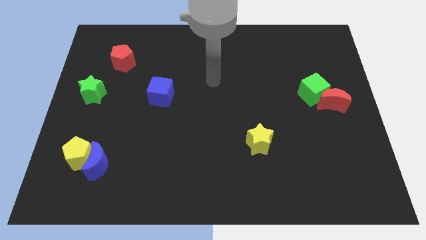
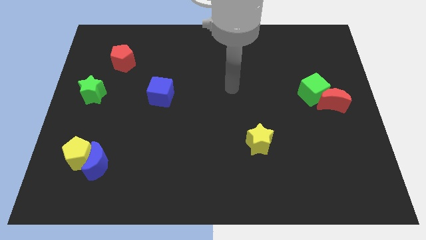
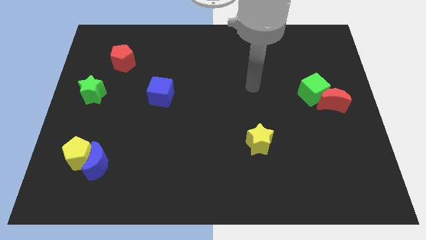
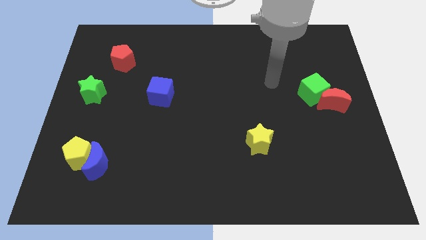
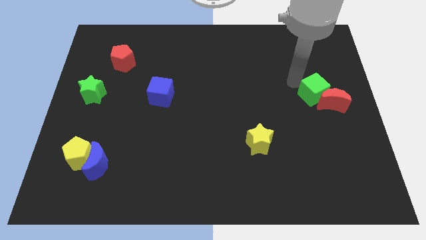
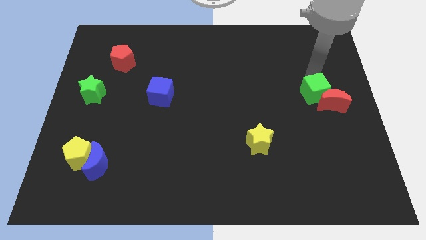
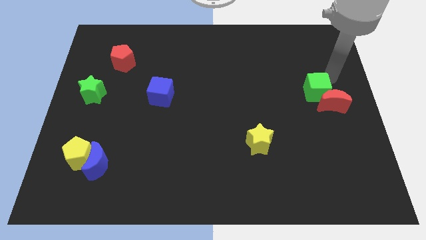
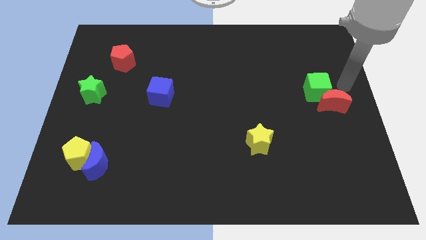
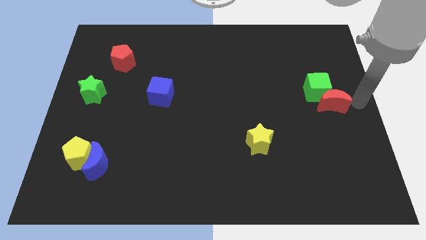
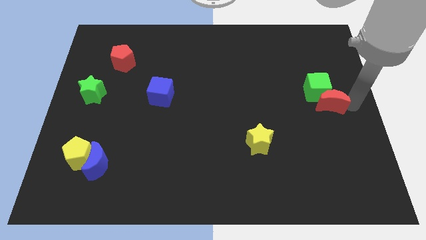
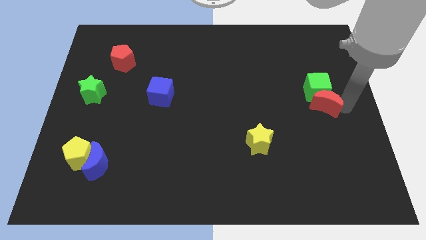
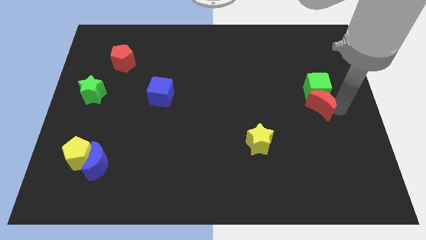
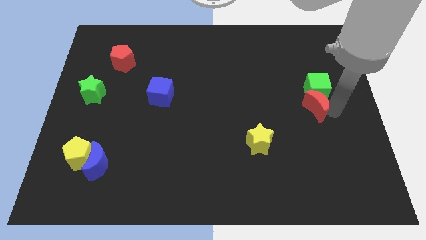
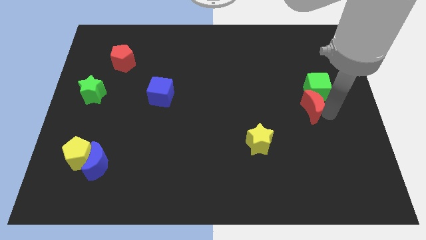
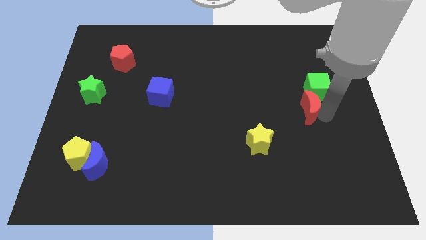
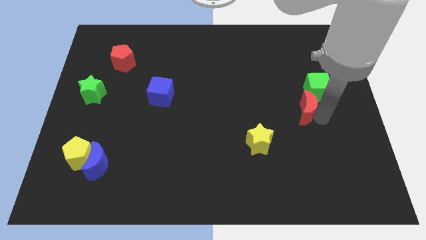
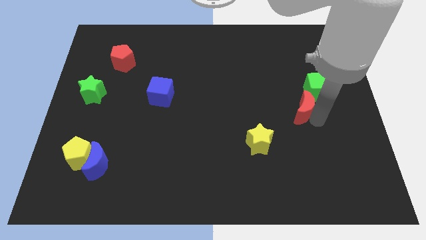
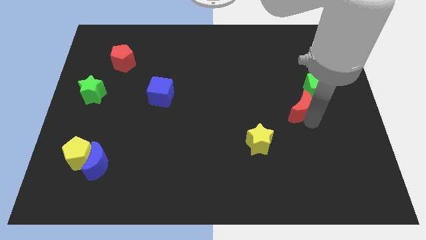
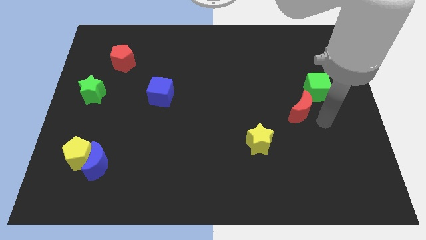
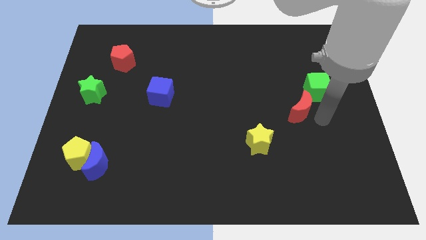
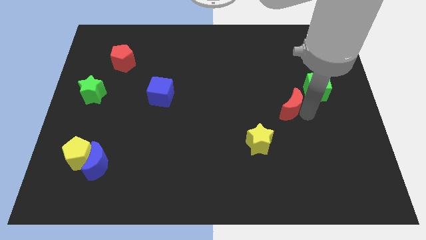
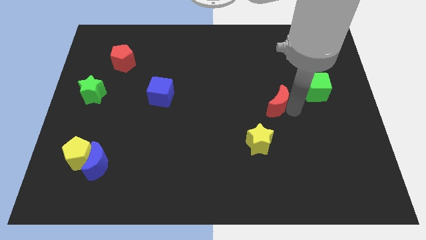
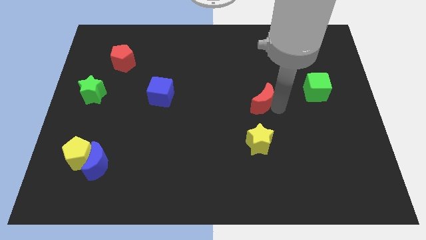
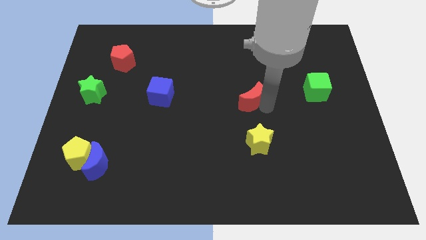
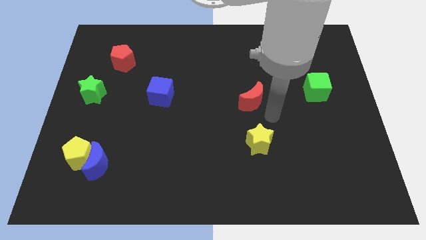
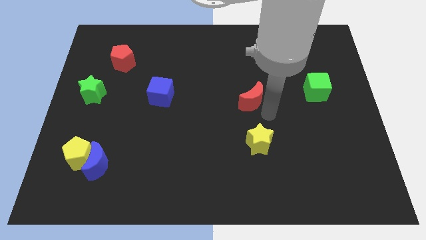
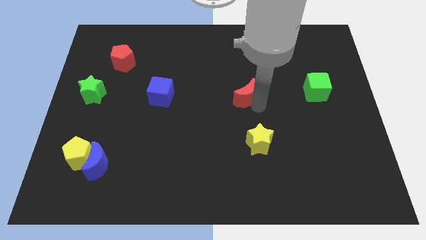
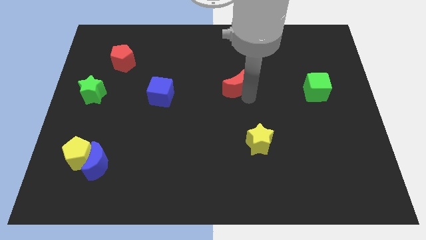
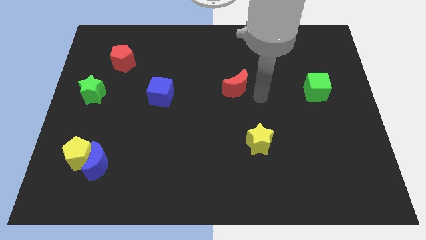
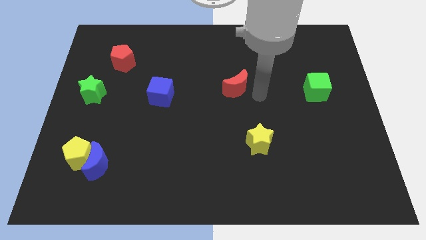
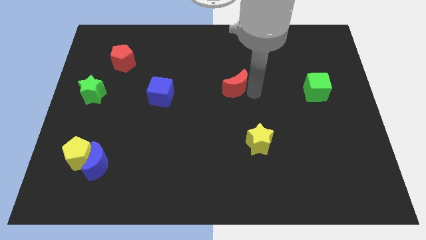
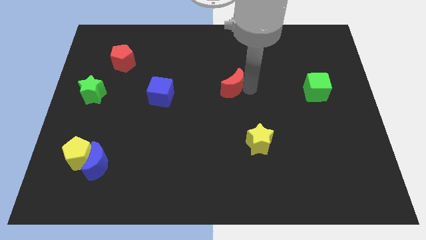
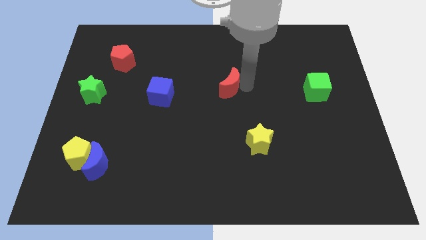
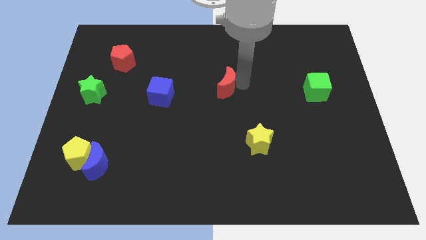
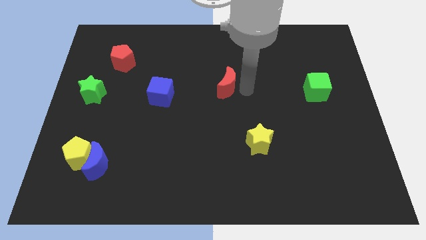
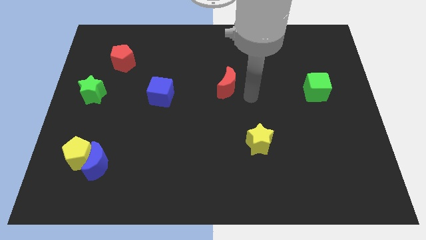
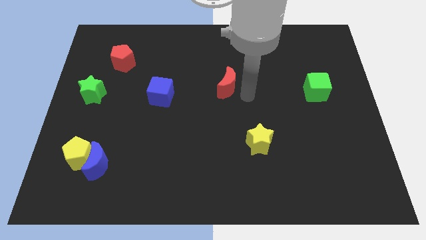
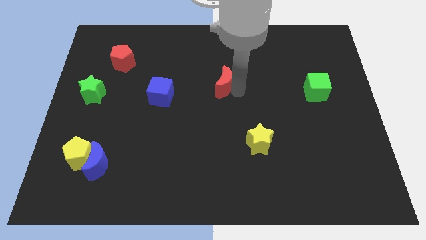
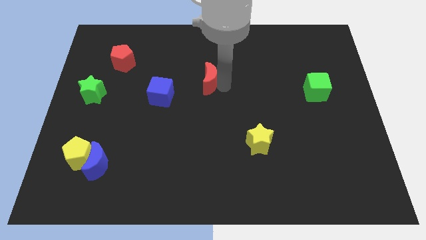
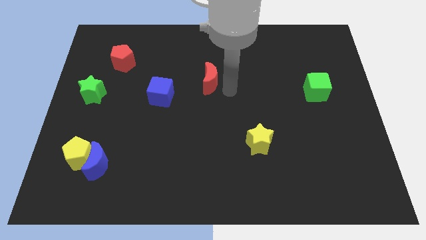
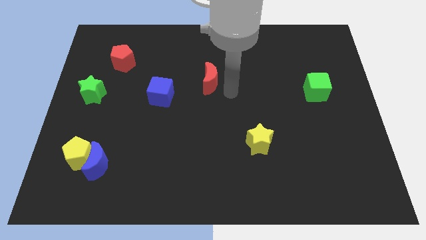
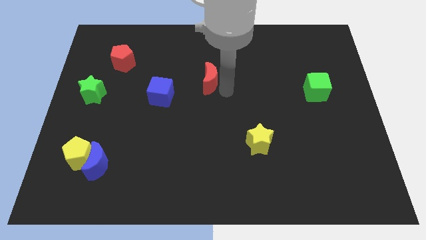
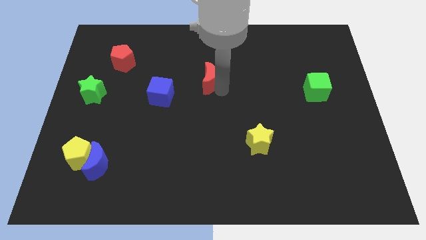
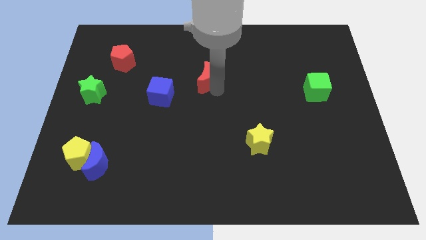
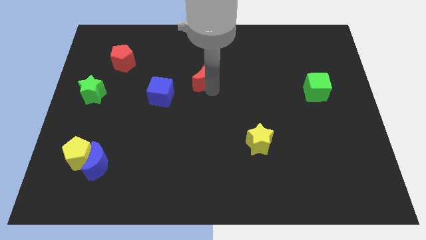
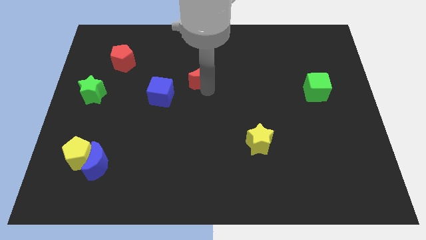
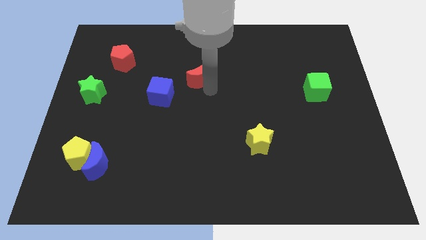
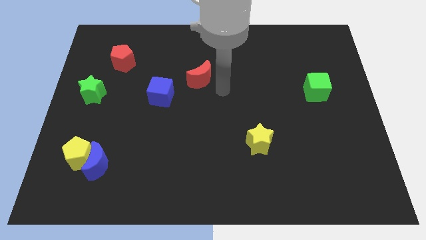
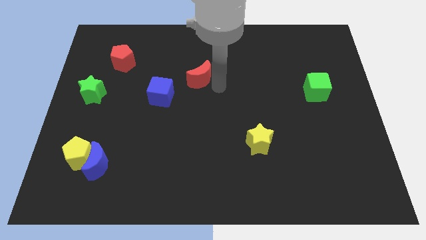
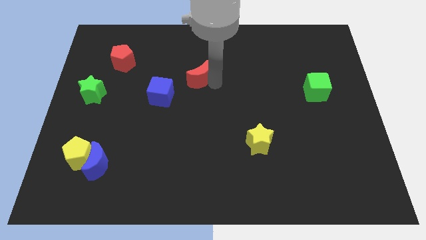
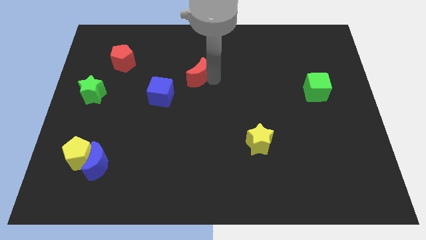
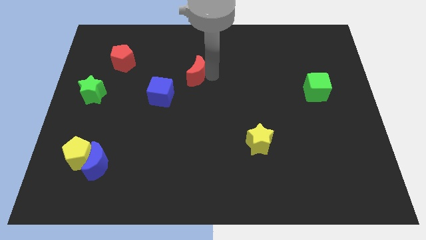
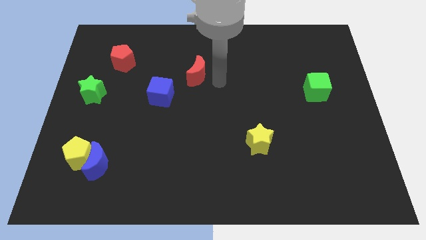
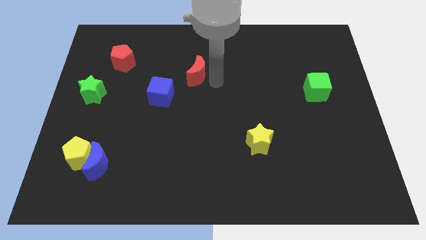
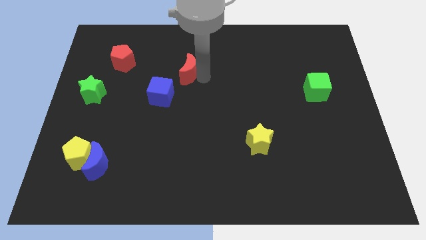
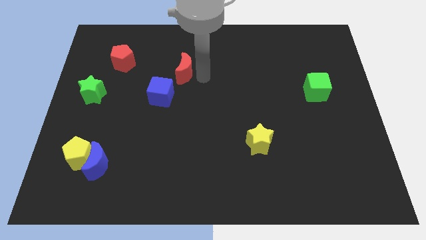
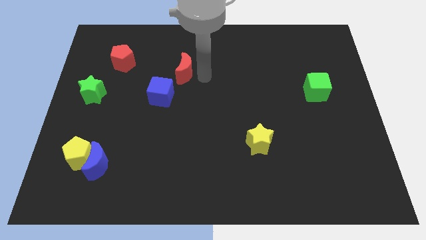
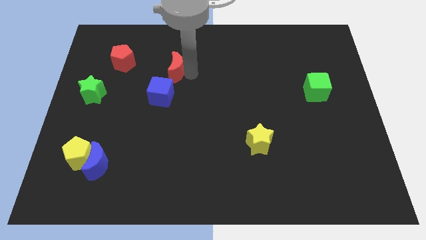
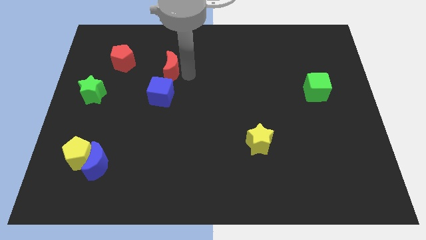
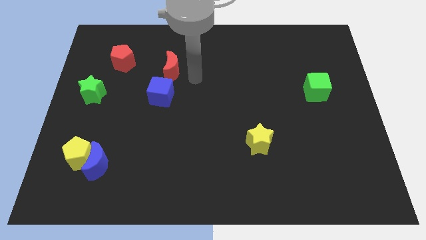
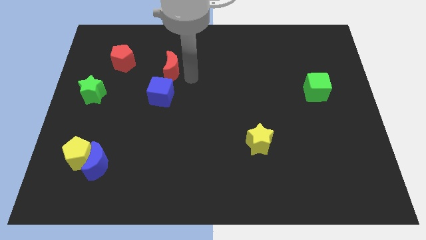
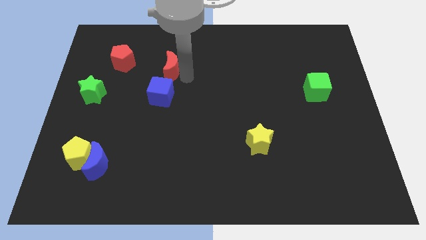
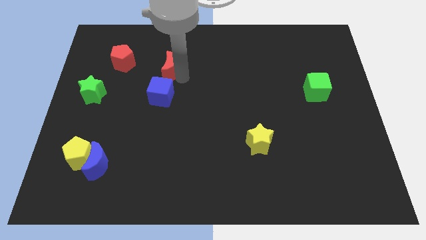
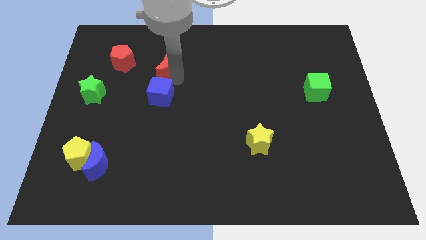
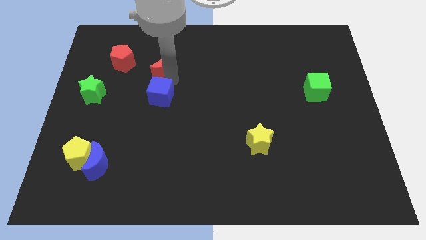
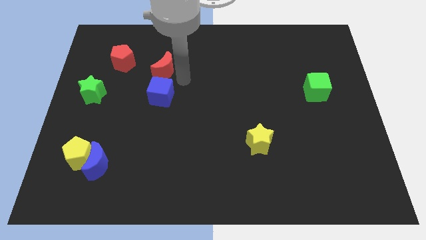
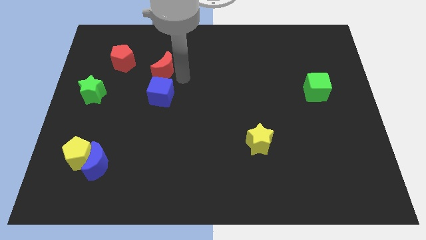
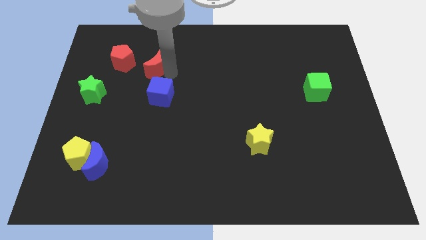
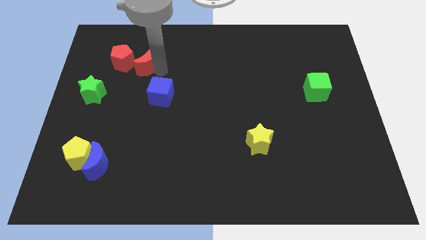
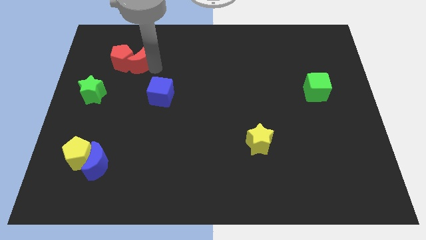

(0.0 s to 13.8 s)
slide the red moon next to the red pentagon

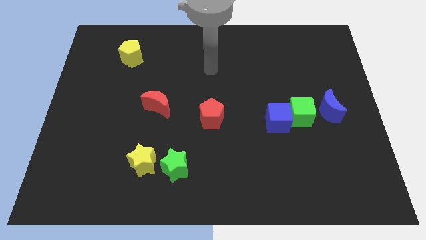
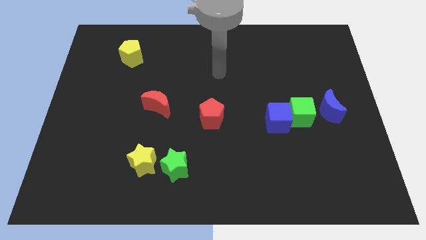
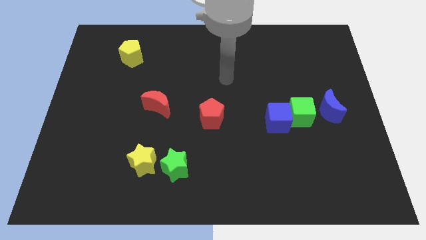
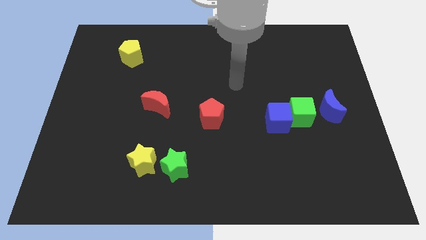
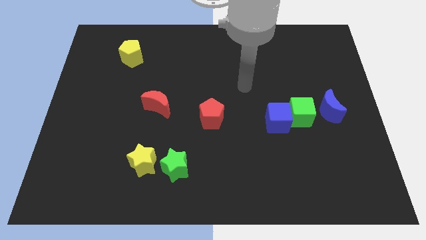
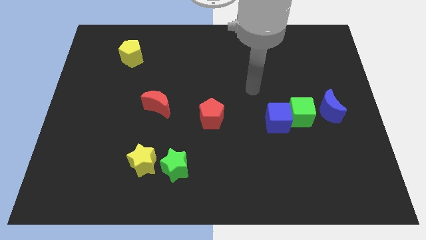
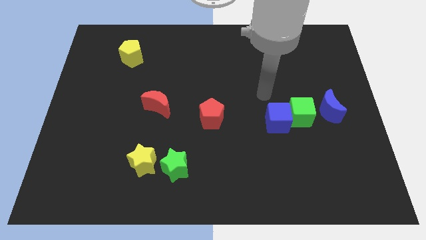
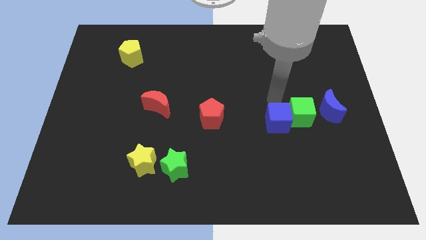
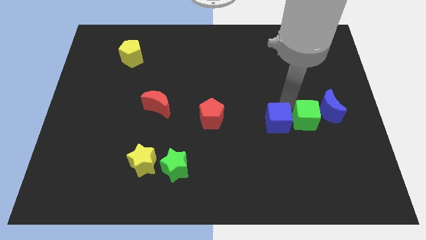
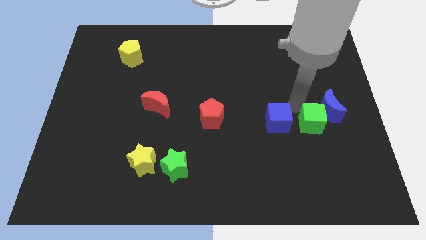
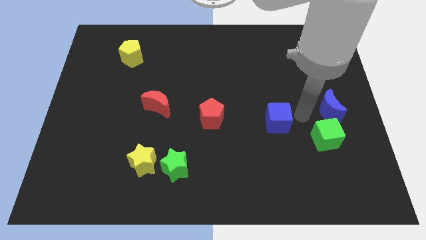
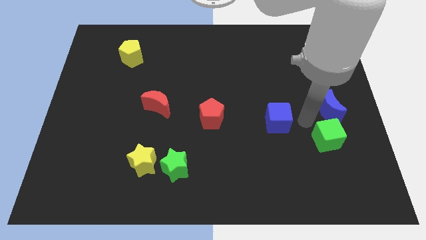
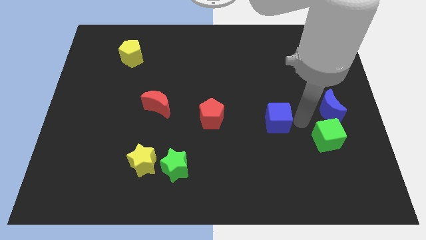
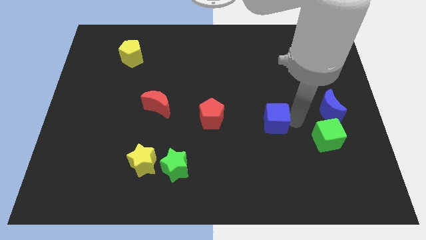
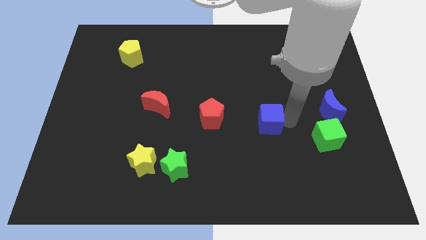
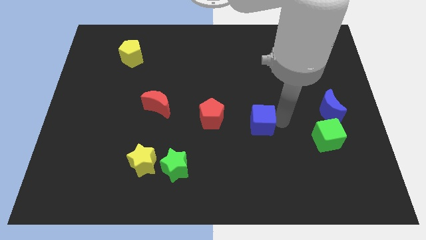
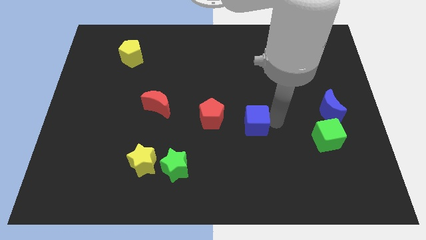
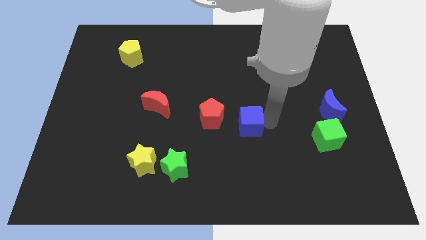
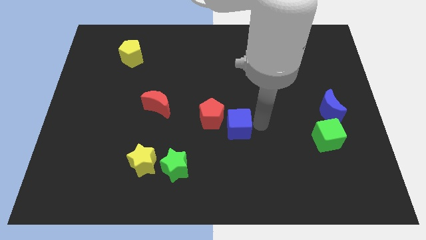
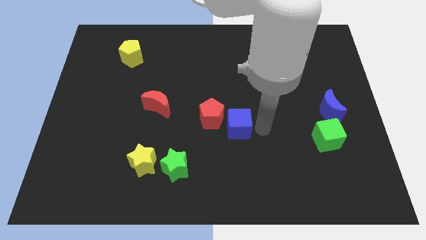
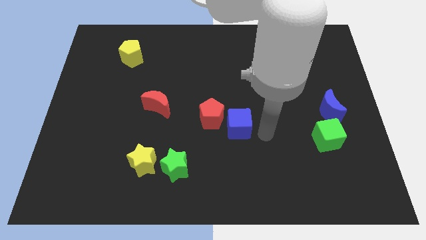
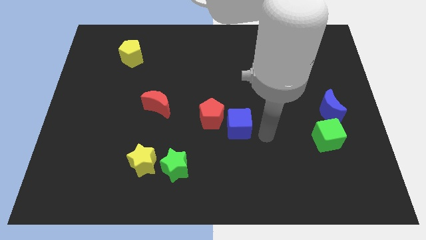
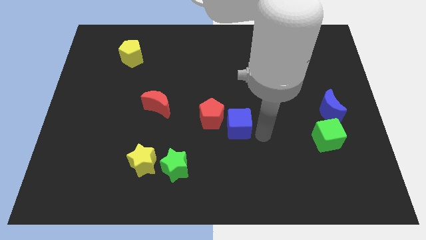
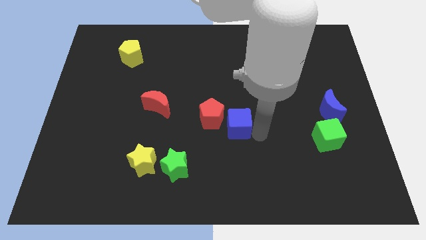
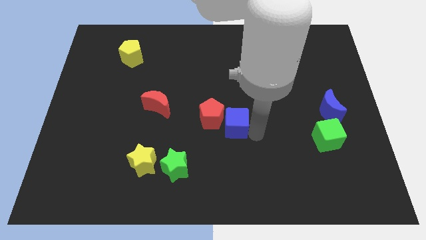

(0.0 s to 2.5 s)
push the blue cube next to the red pentagon
